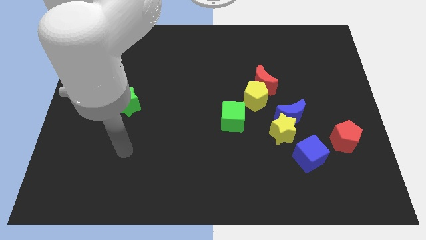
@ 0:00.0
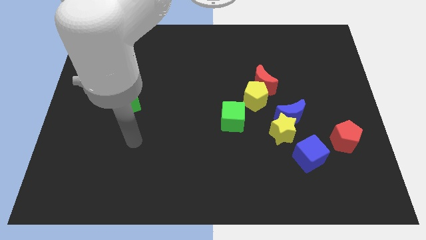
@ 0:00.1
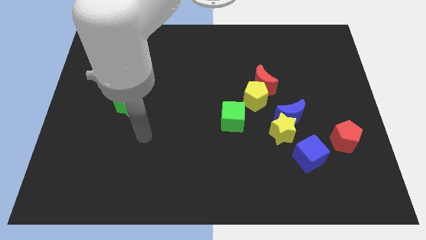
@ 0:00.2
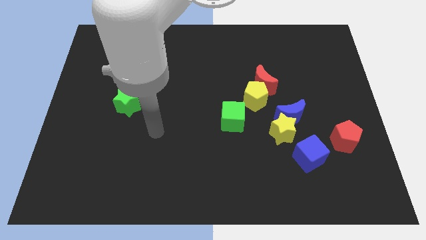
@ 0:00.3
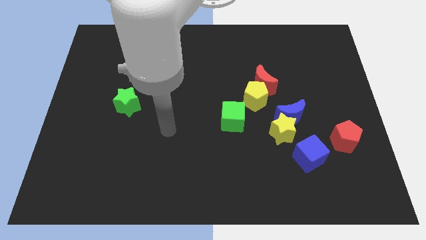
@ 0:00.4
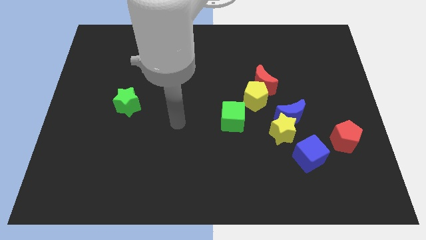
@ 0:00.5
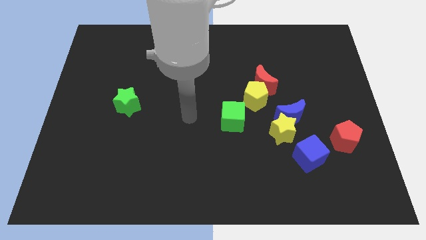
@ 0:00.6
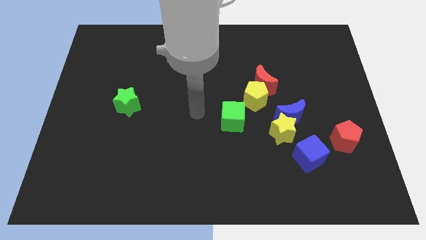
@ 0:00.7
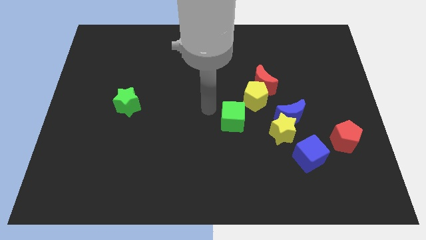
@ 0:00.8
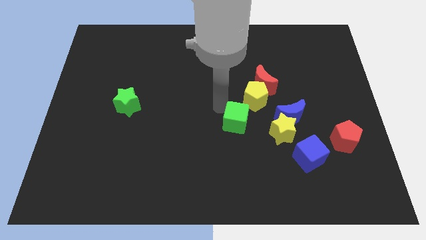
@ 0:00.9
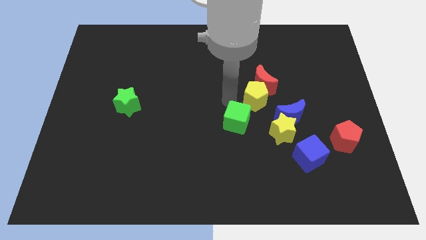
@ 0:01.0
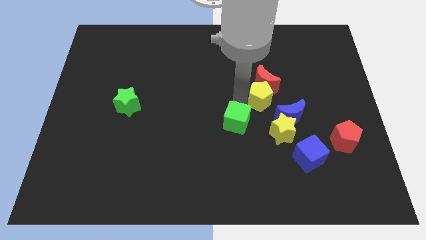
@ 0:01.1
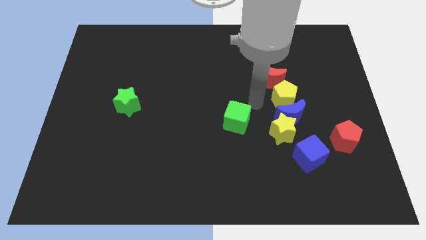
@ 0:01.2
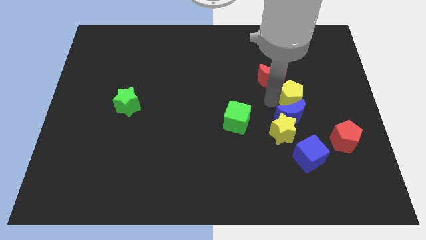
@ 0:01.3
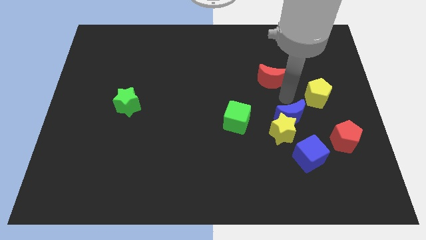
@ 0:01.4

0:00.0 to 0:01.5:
move the red moon away from the yellow pentagon

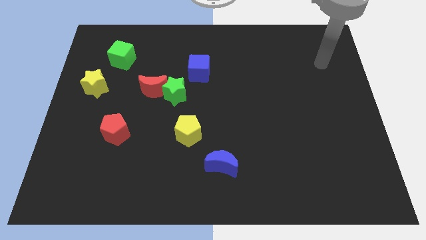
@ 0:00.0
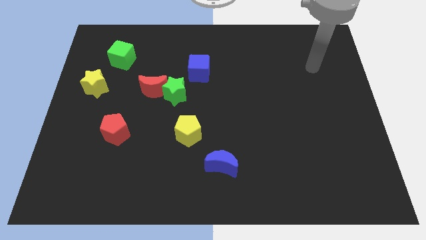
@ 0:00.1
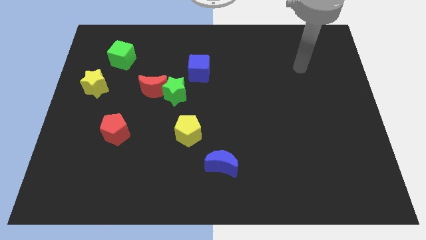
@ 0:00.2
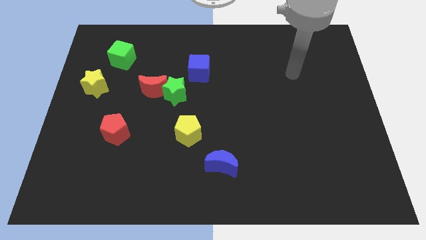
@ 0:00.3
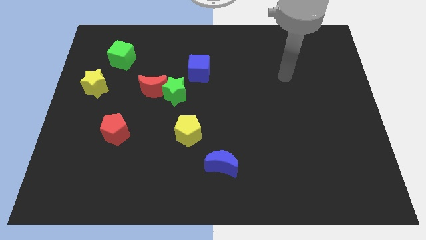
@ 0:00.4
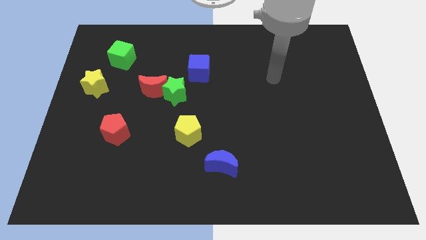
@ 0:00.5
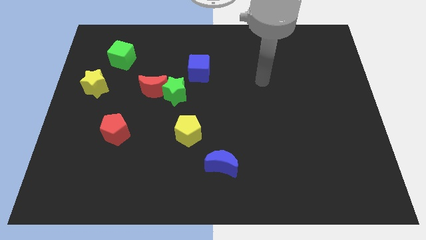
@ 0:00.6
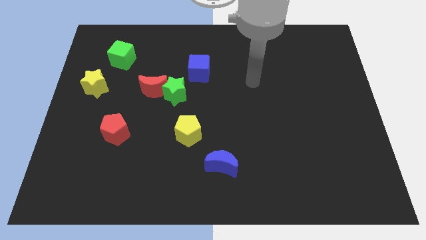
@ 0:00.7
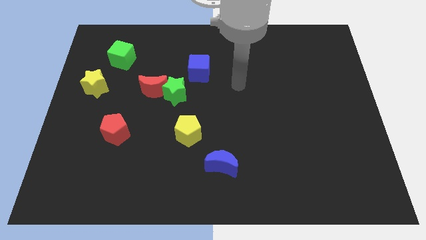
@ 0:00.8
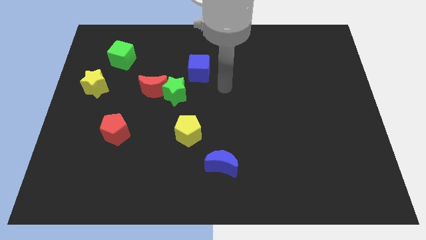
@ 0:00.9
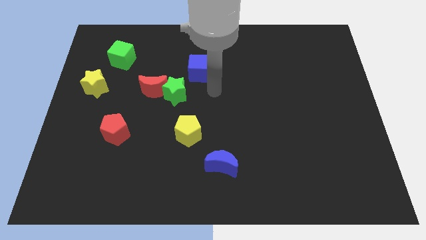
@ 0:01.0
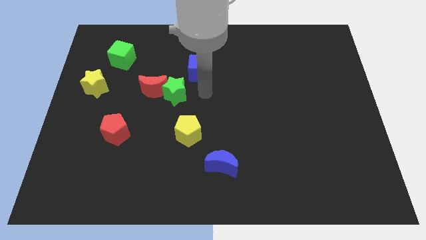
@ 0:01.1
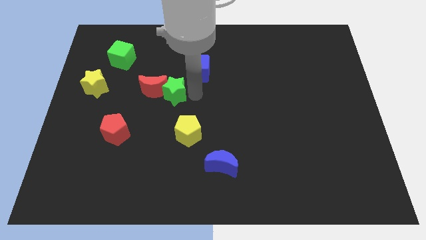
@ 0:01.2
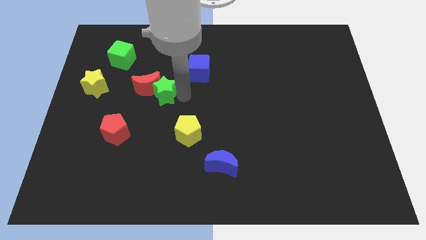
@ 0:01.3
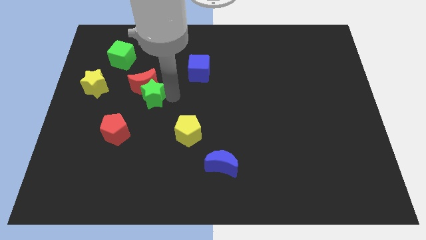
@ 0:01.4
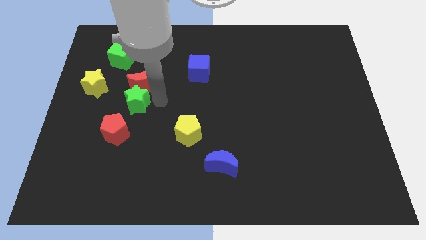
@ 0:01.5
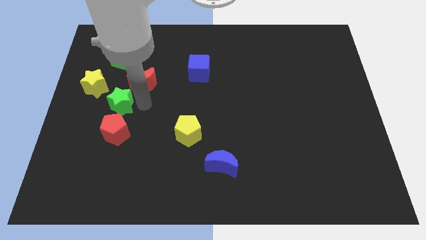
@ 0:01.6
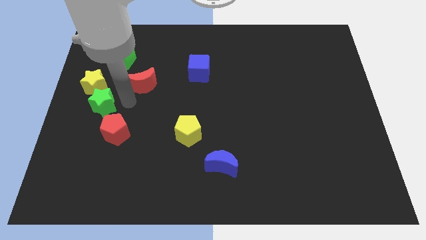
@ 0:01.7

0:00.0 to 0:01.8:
separate the red moon from the green star

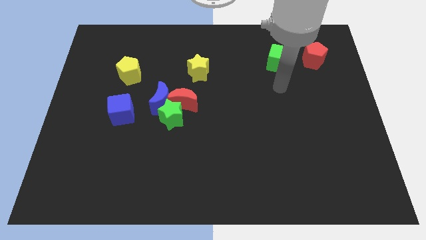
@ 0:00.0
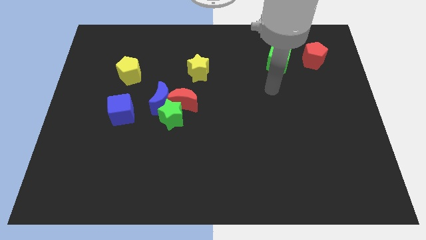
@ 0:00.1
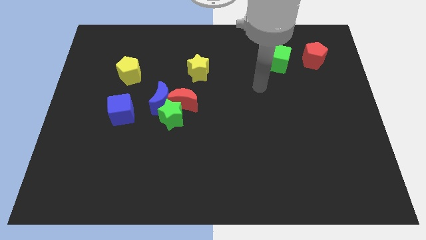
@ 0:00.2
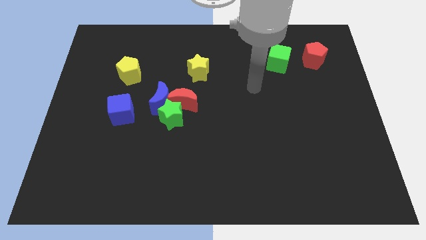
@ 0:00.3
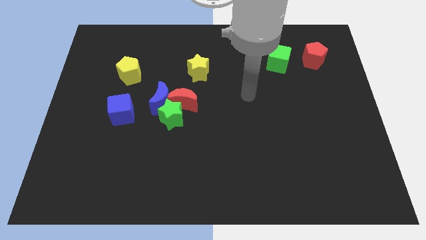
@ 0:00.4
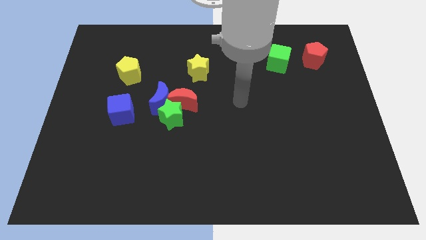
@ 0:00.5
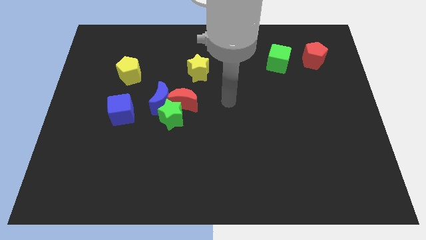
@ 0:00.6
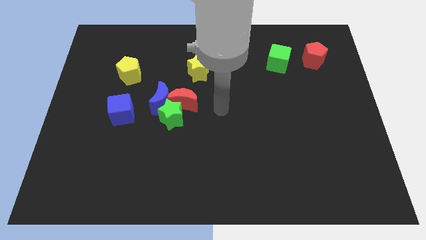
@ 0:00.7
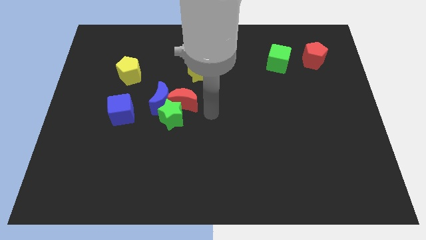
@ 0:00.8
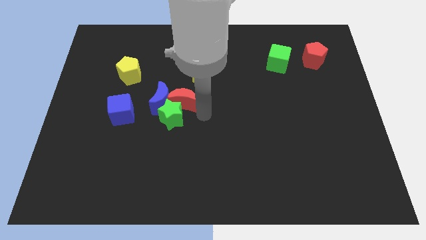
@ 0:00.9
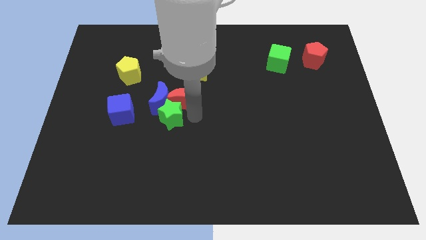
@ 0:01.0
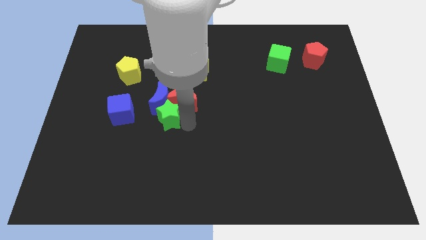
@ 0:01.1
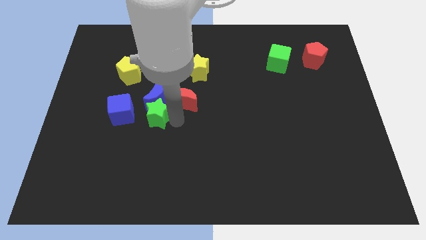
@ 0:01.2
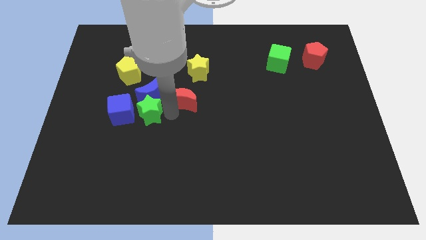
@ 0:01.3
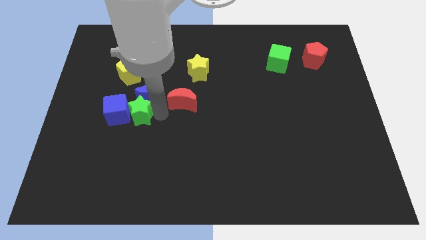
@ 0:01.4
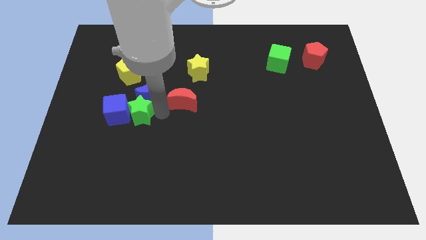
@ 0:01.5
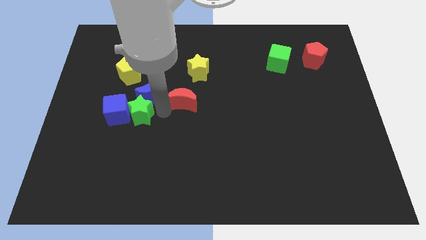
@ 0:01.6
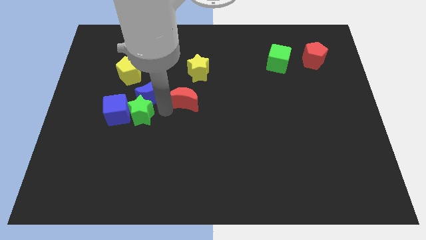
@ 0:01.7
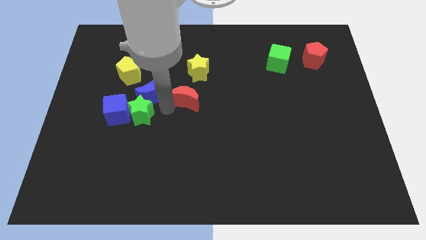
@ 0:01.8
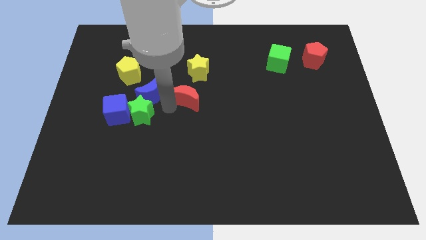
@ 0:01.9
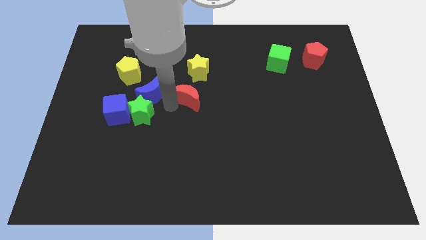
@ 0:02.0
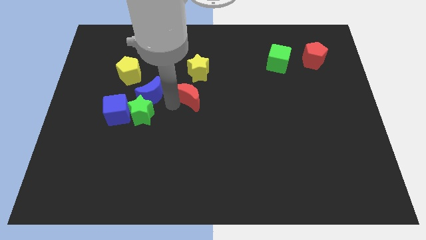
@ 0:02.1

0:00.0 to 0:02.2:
separate the red moon from the green star and blue moon

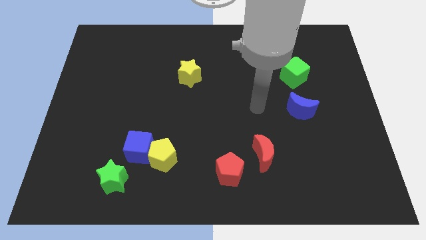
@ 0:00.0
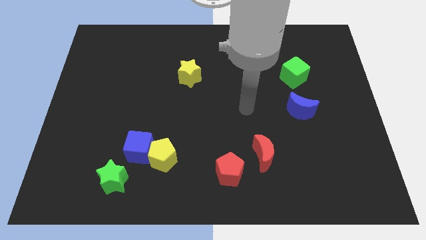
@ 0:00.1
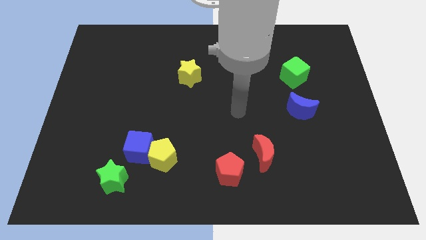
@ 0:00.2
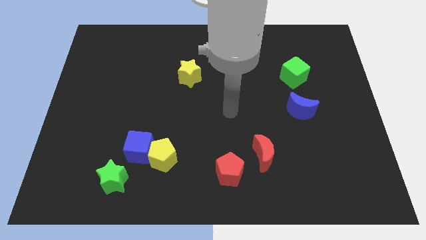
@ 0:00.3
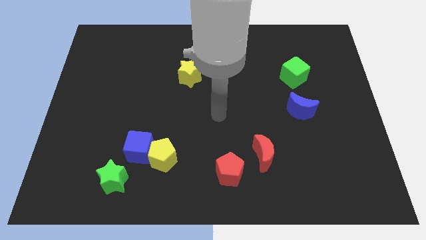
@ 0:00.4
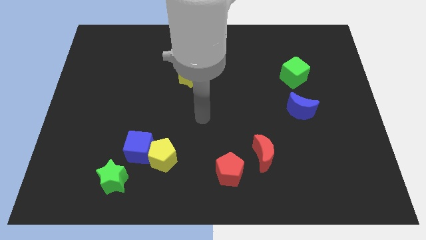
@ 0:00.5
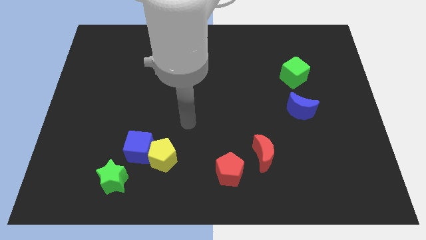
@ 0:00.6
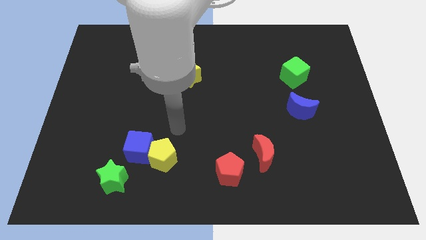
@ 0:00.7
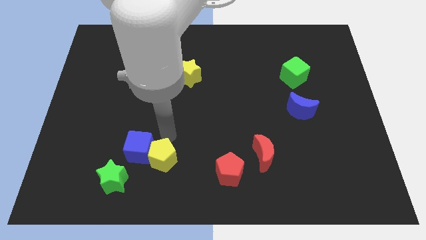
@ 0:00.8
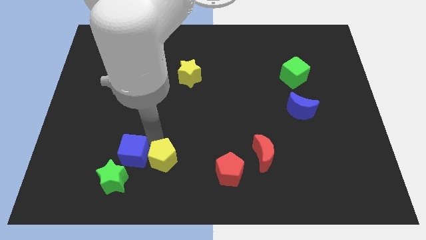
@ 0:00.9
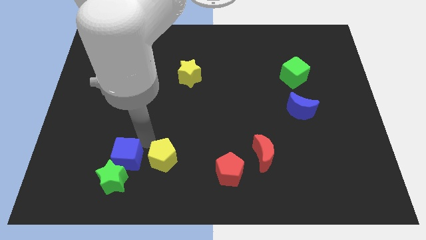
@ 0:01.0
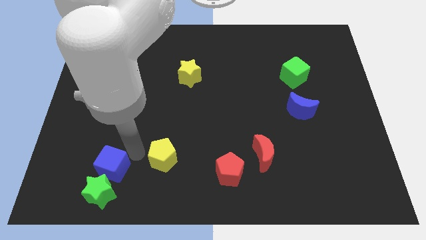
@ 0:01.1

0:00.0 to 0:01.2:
move the yellow pentagon away from the blue cube

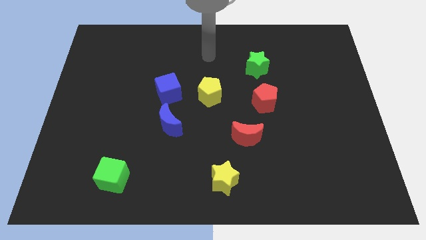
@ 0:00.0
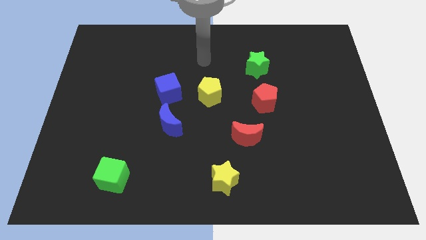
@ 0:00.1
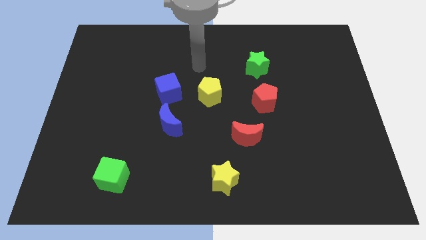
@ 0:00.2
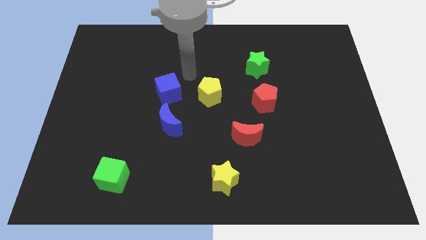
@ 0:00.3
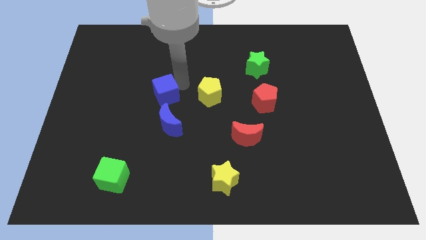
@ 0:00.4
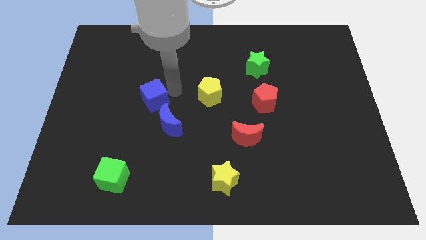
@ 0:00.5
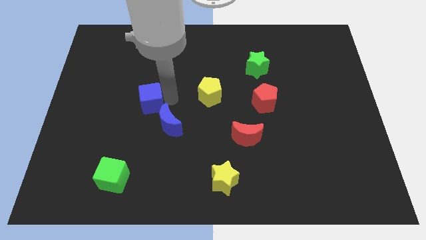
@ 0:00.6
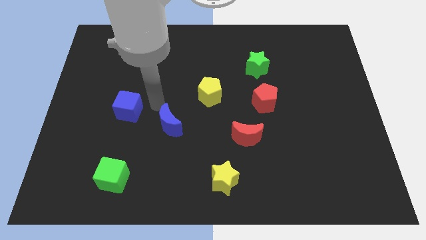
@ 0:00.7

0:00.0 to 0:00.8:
pull the blue moon apart from the blue cube

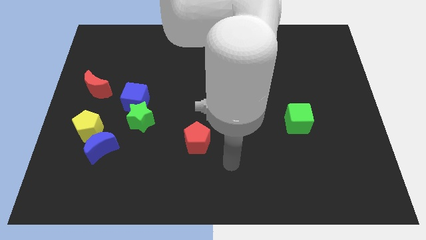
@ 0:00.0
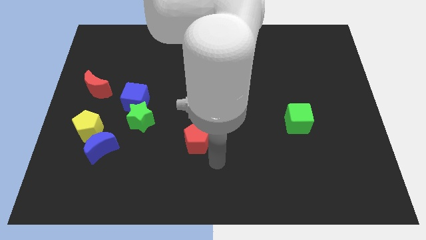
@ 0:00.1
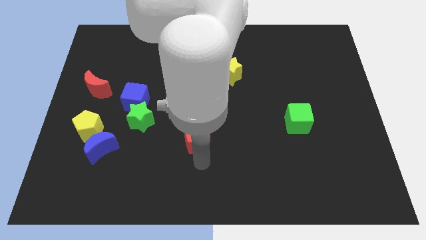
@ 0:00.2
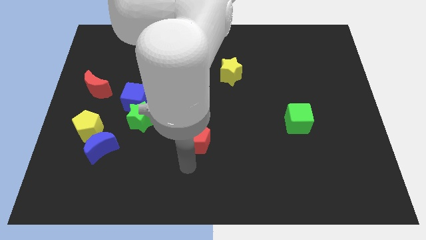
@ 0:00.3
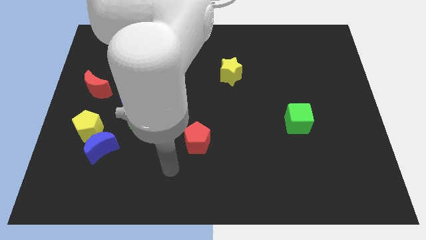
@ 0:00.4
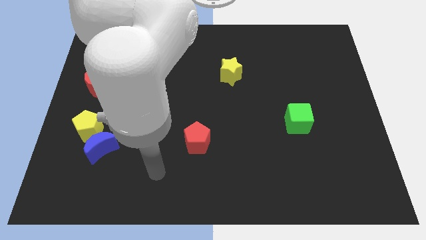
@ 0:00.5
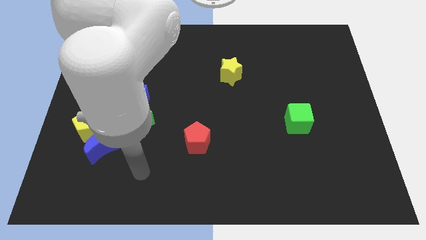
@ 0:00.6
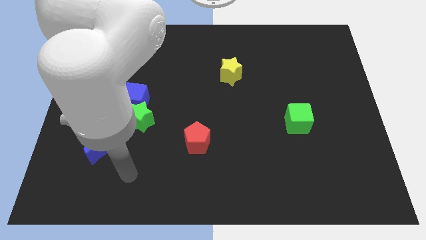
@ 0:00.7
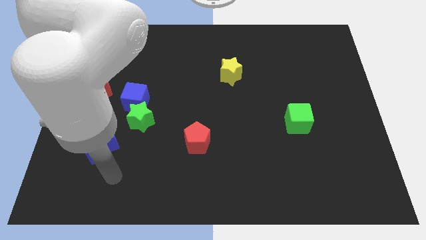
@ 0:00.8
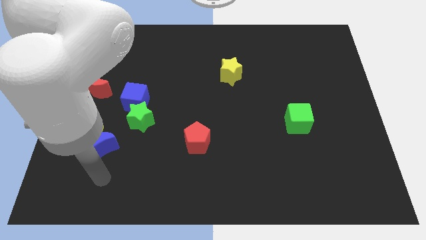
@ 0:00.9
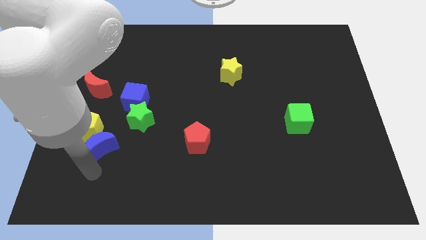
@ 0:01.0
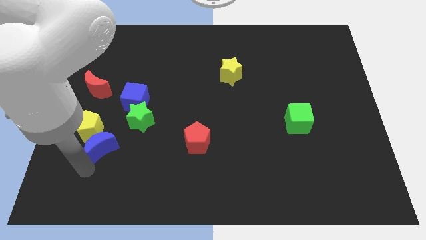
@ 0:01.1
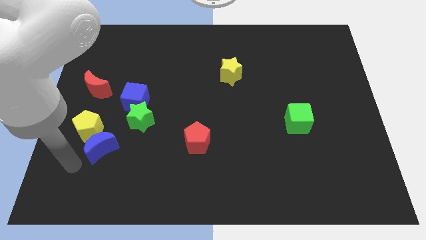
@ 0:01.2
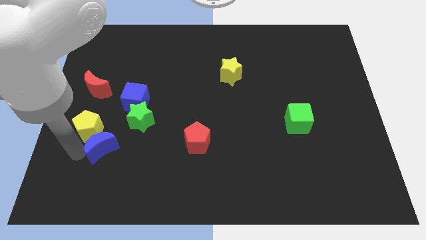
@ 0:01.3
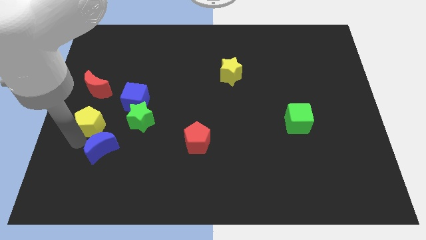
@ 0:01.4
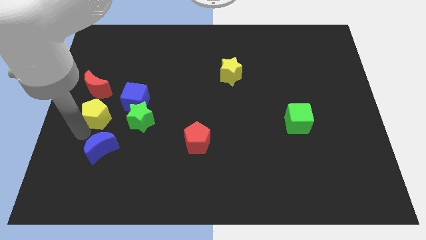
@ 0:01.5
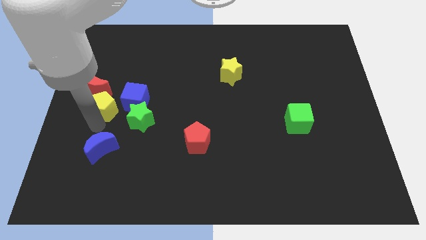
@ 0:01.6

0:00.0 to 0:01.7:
move the blue moon away from the yellow pentagon
